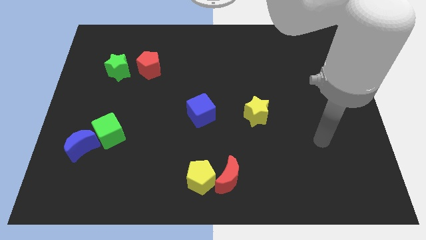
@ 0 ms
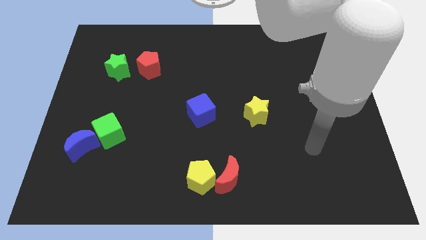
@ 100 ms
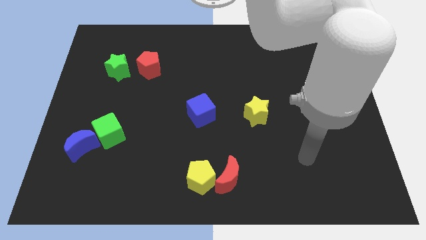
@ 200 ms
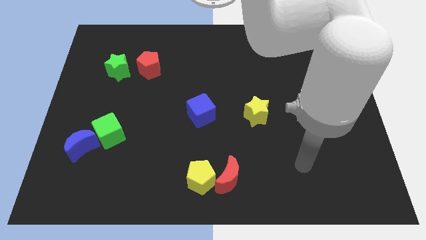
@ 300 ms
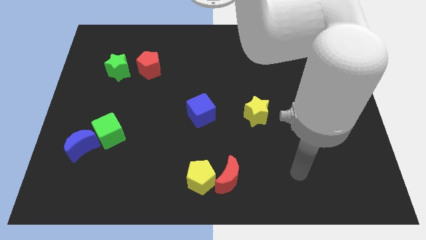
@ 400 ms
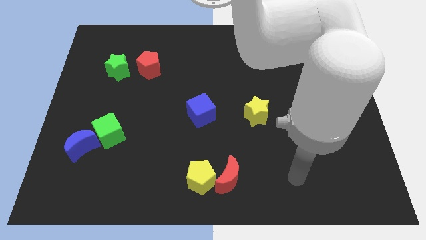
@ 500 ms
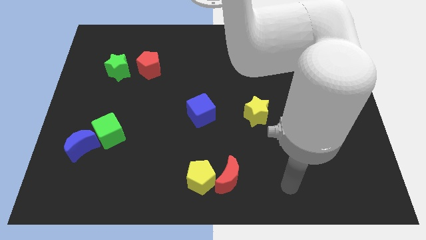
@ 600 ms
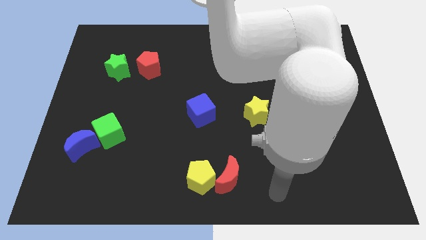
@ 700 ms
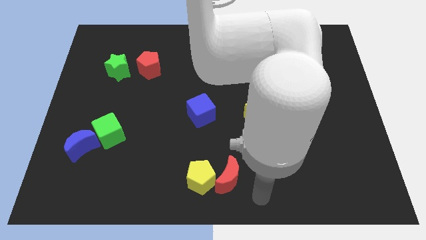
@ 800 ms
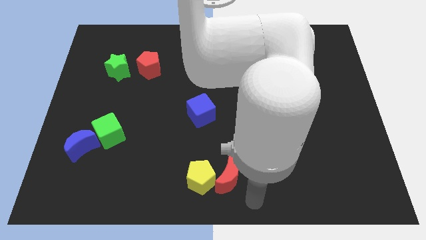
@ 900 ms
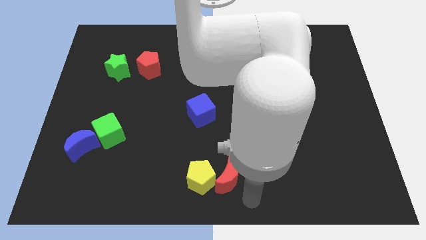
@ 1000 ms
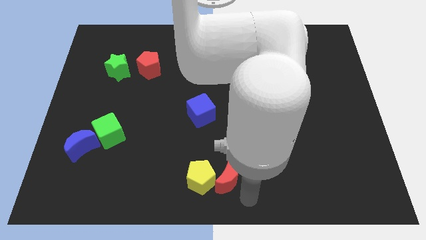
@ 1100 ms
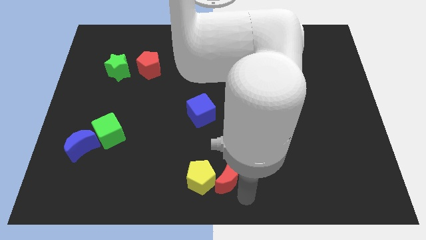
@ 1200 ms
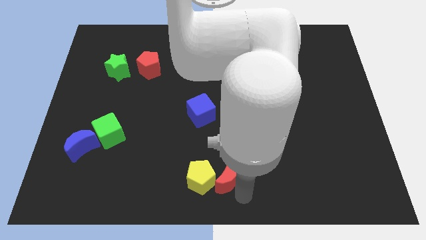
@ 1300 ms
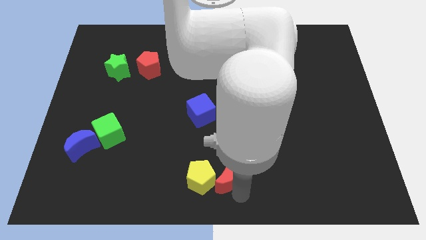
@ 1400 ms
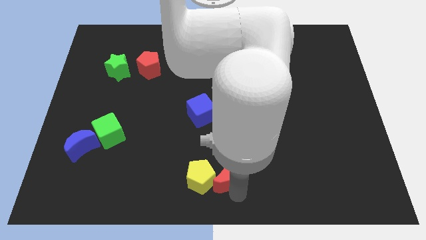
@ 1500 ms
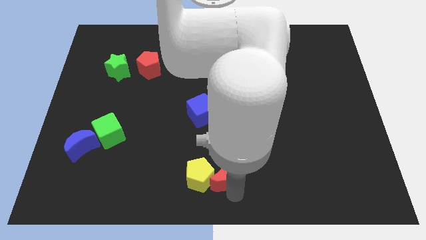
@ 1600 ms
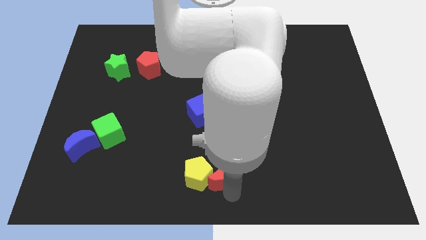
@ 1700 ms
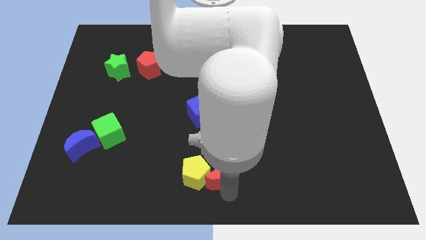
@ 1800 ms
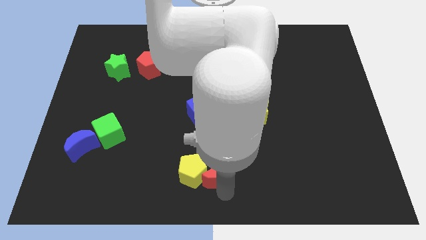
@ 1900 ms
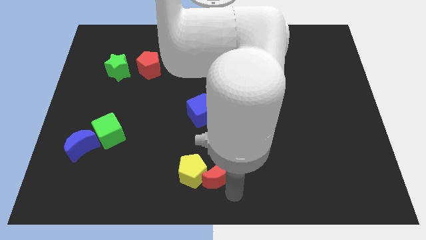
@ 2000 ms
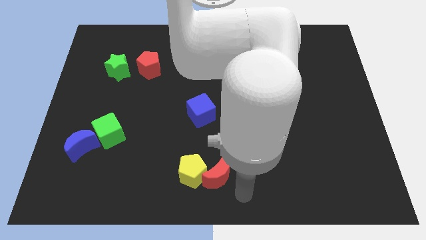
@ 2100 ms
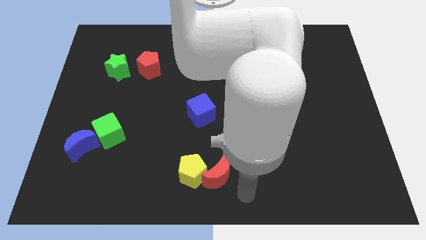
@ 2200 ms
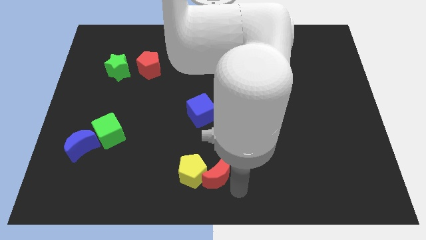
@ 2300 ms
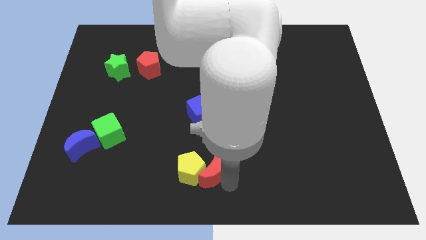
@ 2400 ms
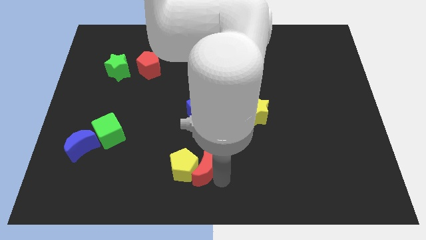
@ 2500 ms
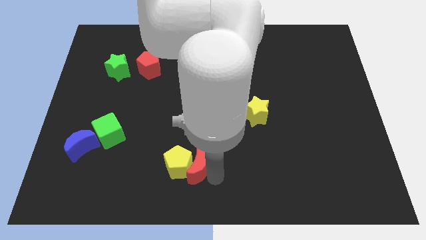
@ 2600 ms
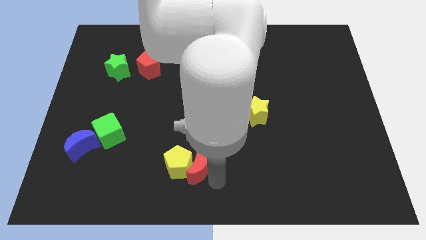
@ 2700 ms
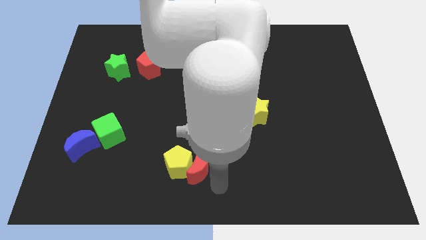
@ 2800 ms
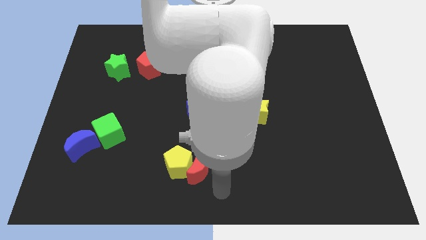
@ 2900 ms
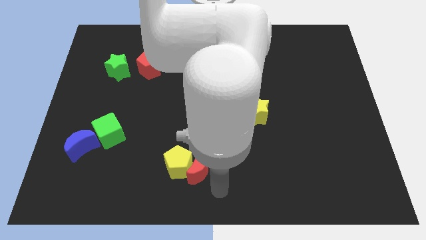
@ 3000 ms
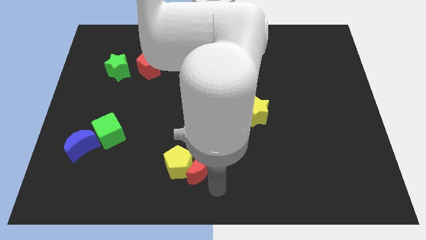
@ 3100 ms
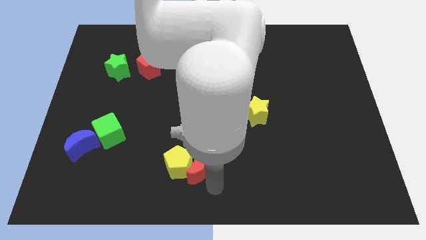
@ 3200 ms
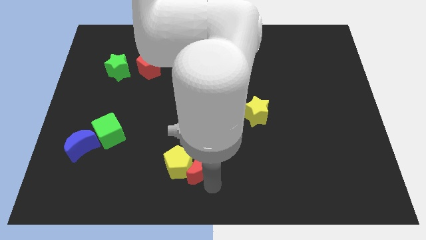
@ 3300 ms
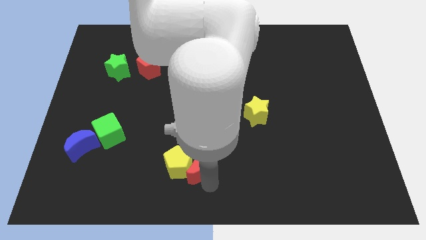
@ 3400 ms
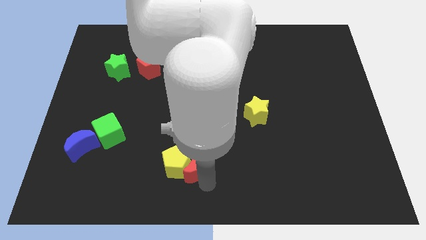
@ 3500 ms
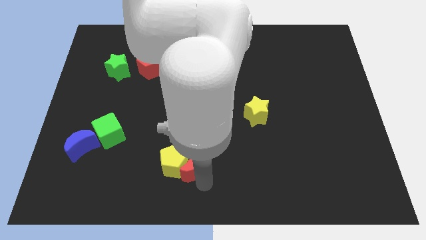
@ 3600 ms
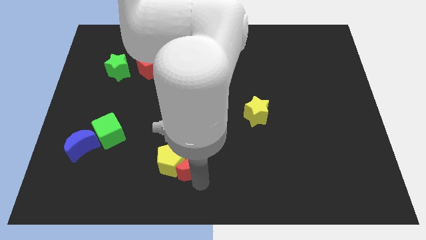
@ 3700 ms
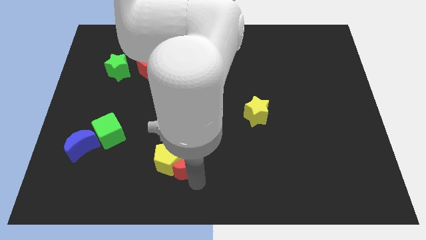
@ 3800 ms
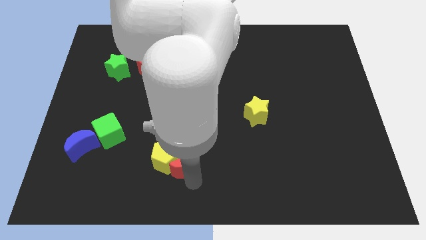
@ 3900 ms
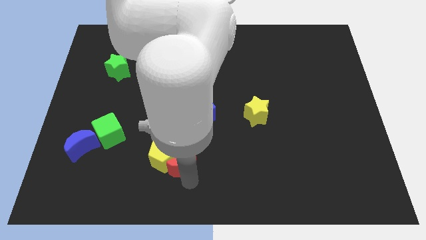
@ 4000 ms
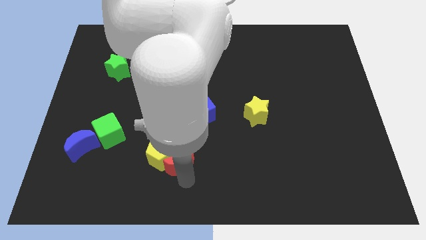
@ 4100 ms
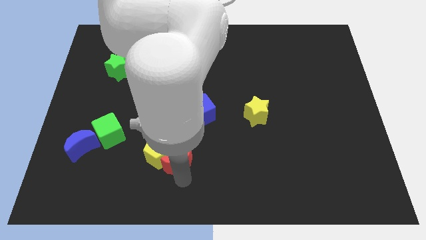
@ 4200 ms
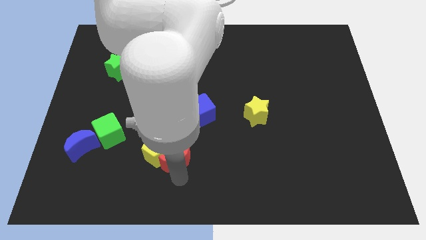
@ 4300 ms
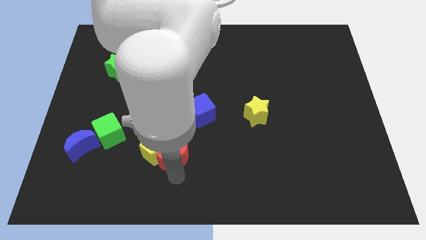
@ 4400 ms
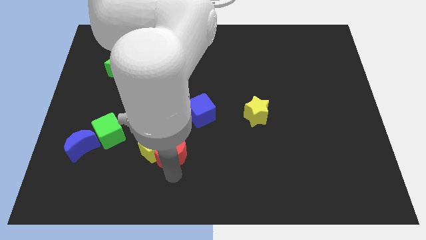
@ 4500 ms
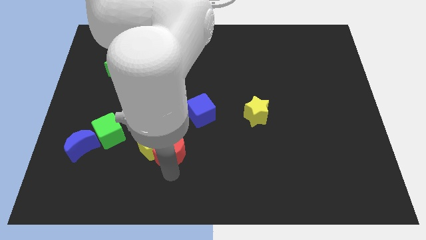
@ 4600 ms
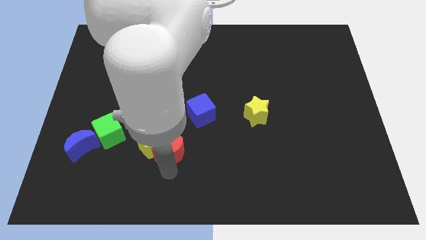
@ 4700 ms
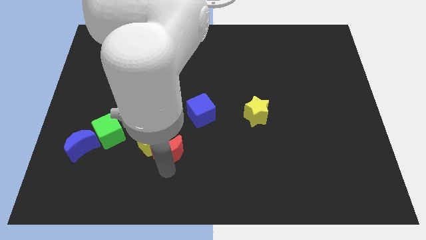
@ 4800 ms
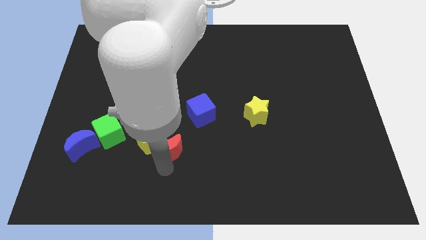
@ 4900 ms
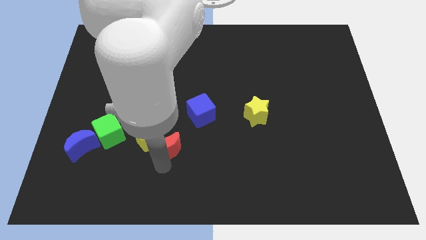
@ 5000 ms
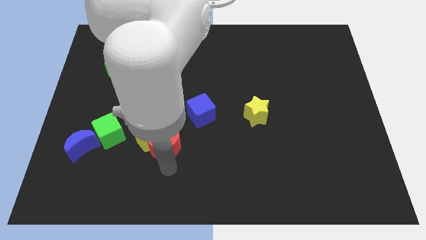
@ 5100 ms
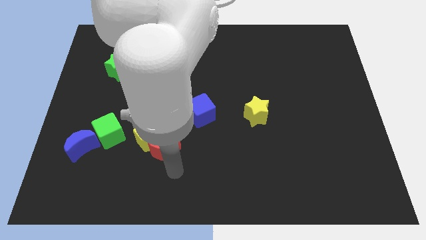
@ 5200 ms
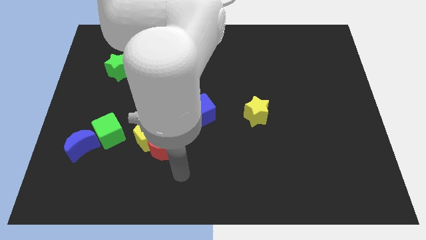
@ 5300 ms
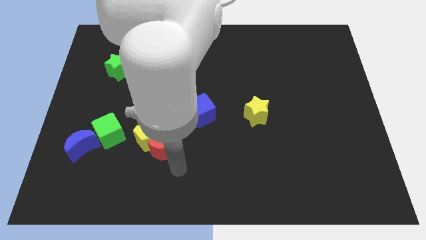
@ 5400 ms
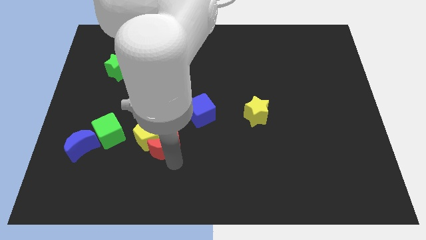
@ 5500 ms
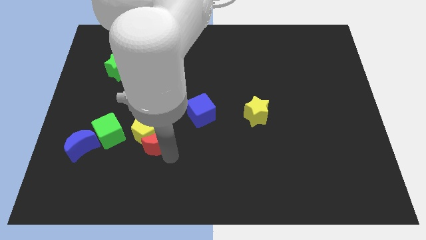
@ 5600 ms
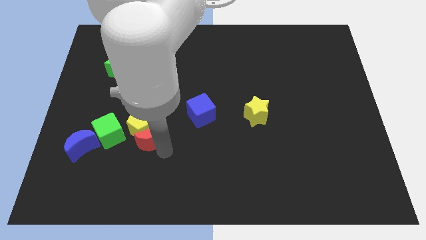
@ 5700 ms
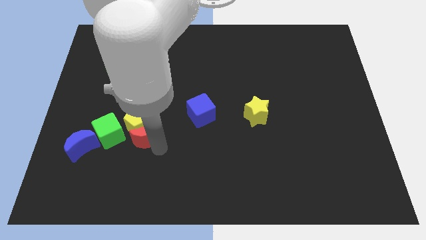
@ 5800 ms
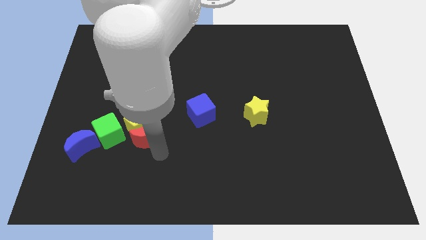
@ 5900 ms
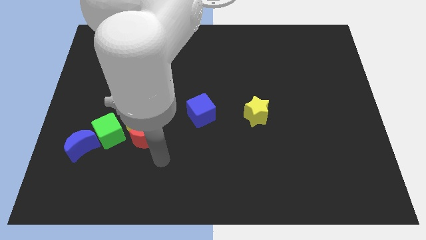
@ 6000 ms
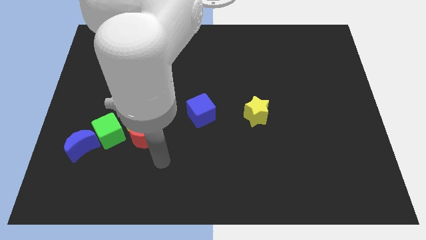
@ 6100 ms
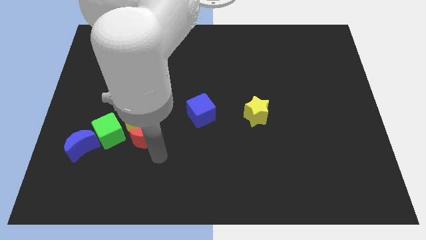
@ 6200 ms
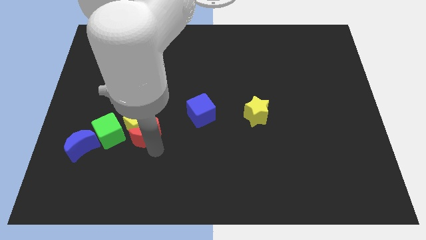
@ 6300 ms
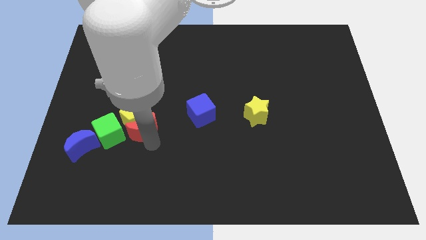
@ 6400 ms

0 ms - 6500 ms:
slide the red moon to the top right side of the green cube
